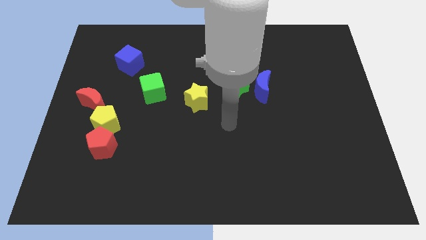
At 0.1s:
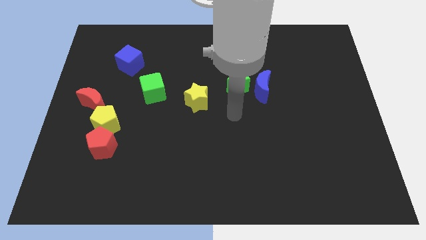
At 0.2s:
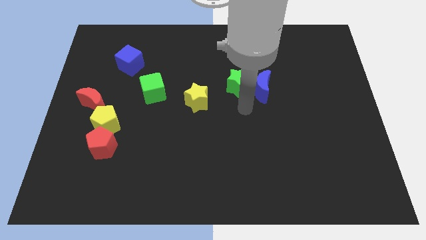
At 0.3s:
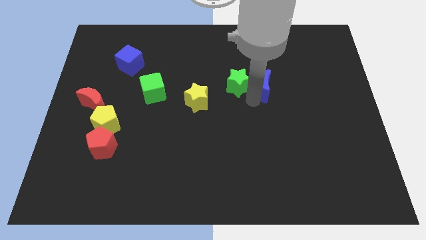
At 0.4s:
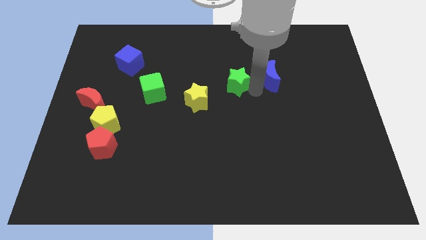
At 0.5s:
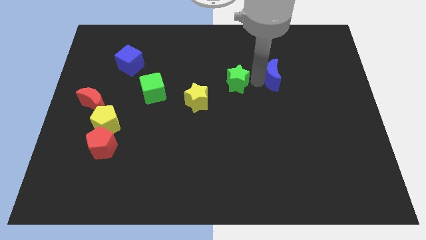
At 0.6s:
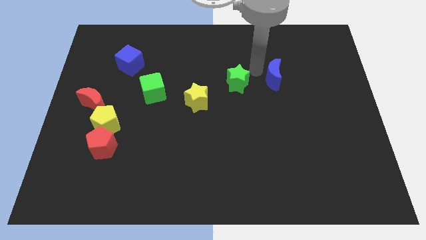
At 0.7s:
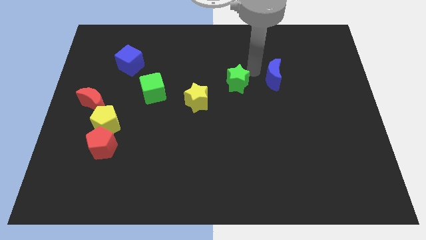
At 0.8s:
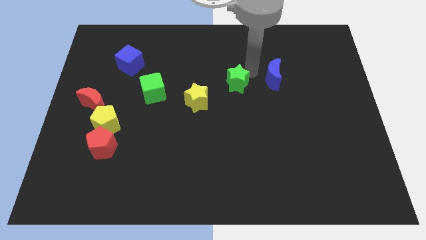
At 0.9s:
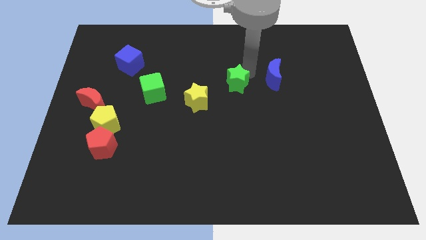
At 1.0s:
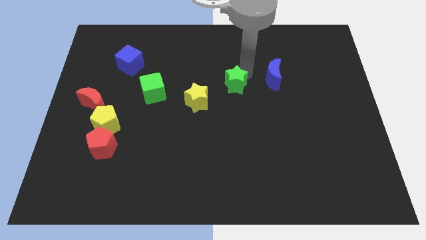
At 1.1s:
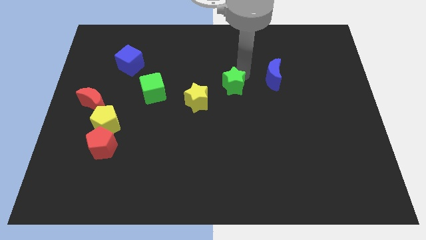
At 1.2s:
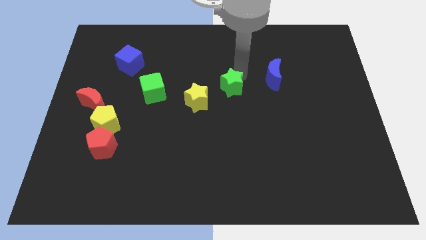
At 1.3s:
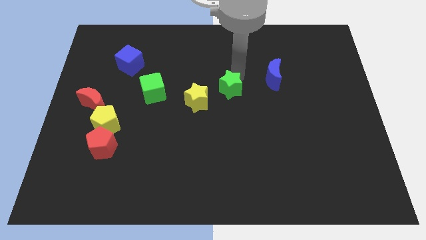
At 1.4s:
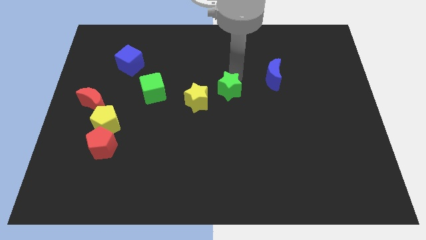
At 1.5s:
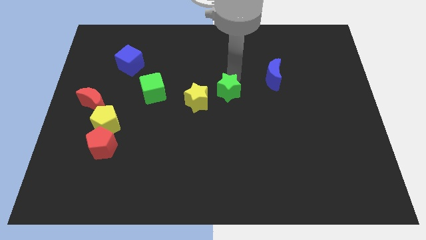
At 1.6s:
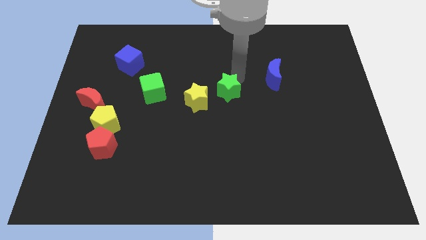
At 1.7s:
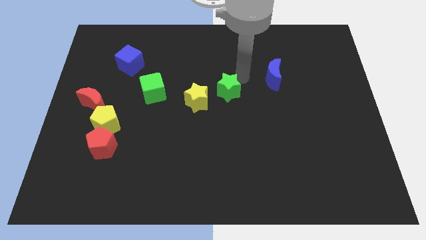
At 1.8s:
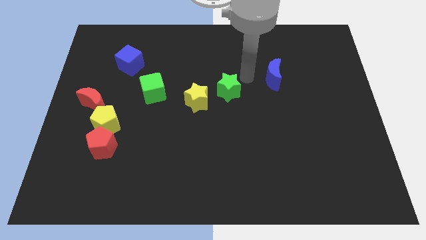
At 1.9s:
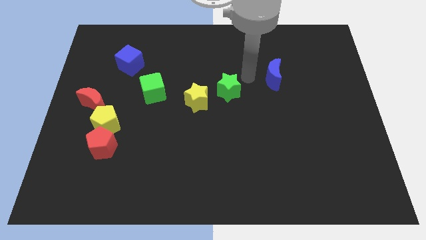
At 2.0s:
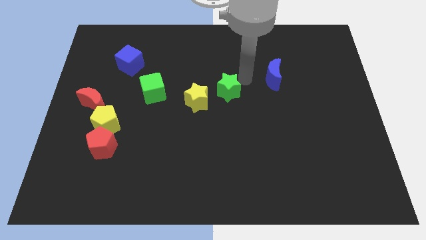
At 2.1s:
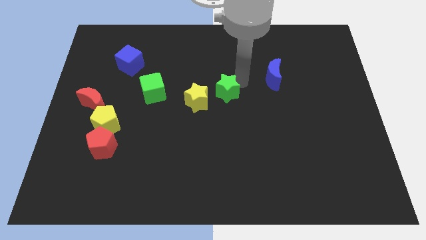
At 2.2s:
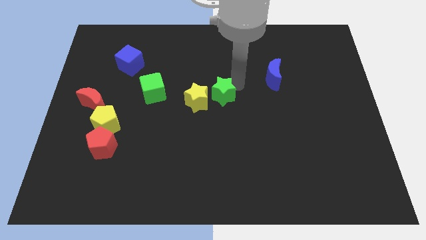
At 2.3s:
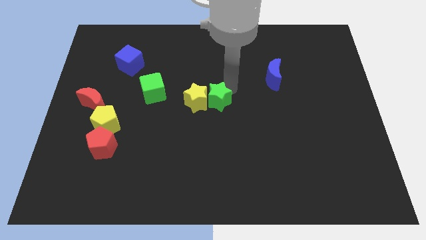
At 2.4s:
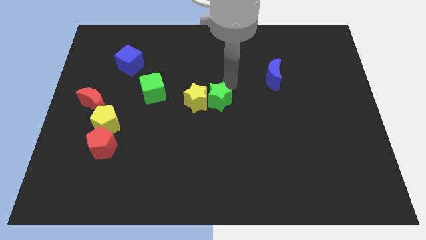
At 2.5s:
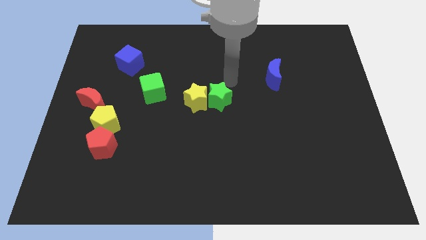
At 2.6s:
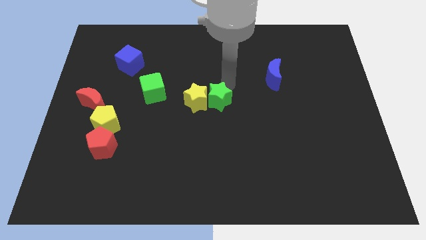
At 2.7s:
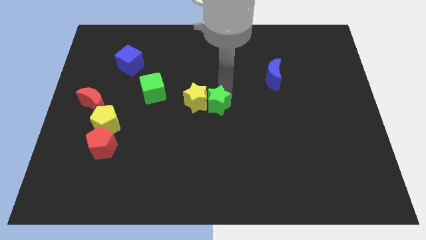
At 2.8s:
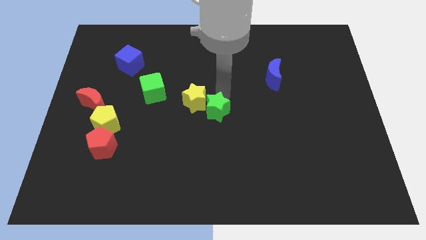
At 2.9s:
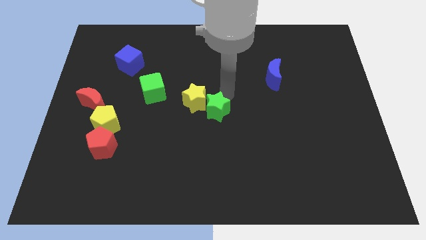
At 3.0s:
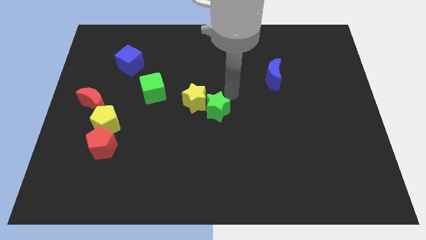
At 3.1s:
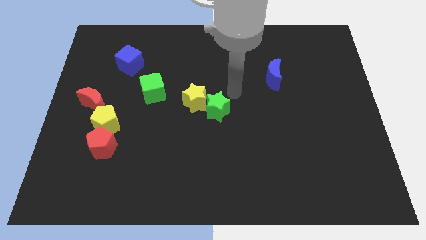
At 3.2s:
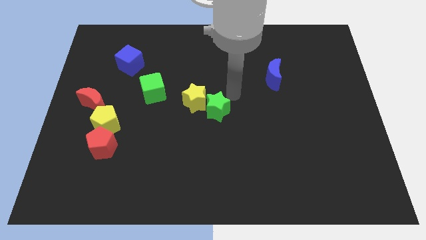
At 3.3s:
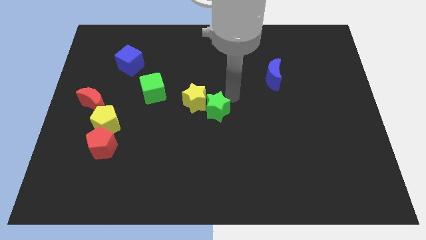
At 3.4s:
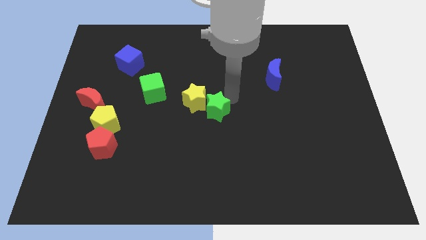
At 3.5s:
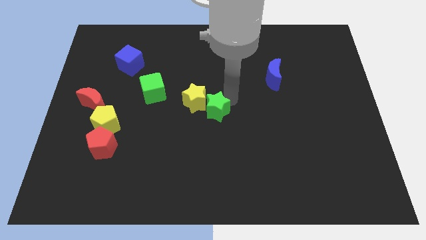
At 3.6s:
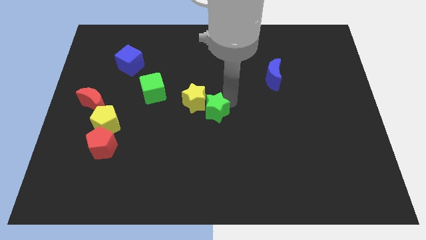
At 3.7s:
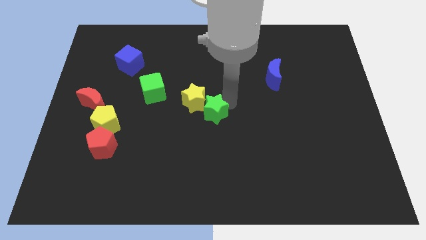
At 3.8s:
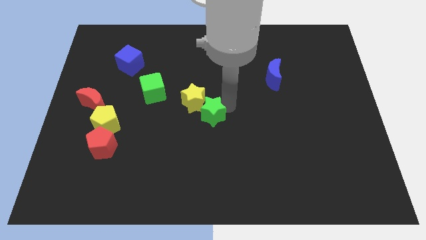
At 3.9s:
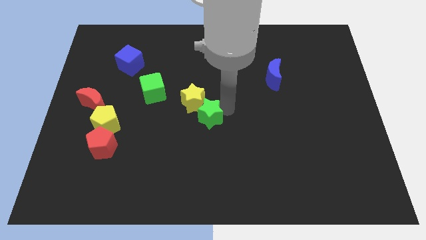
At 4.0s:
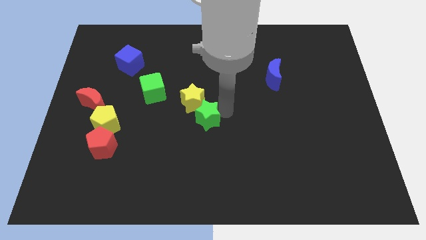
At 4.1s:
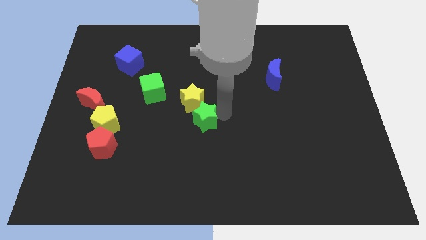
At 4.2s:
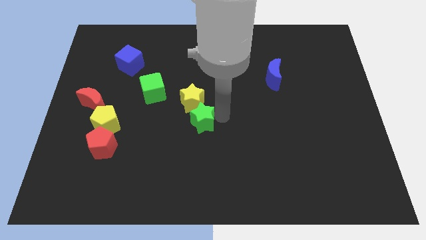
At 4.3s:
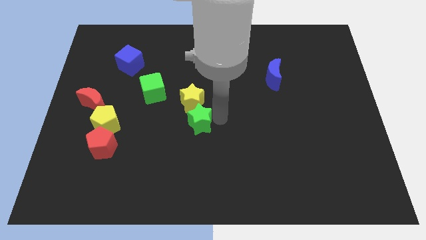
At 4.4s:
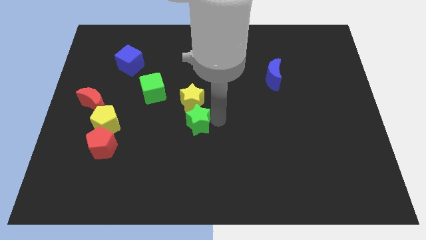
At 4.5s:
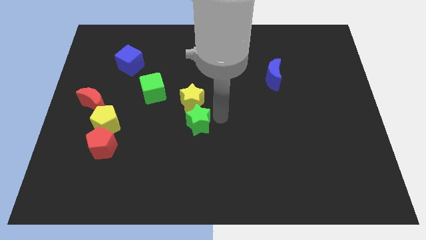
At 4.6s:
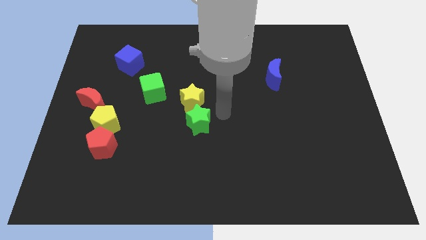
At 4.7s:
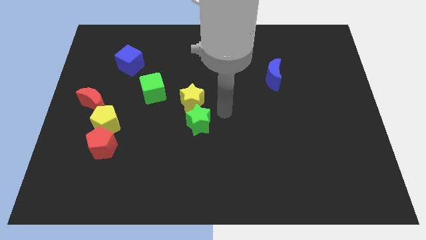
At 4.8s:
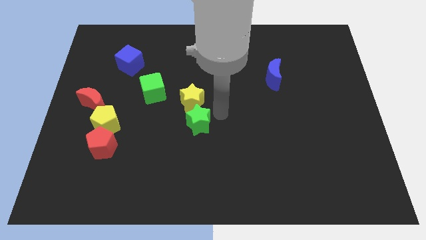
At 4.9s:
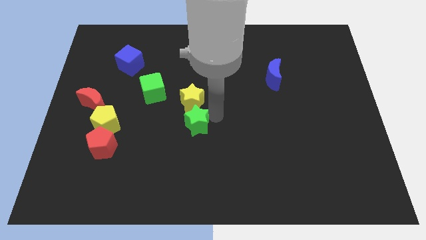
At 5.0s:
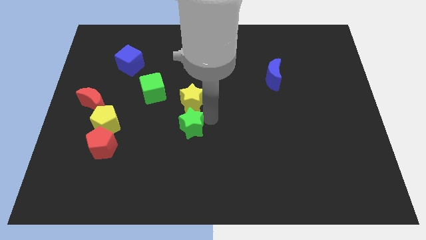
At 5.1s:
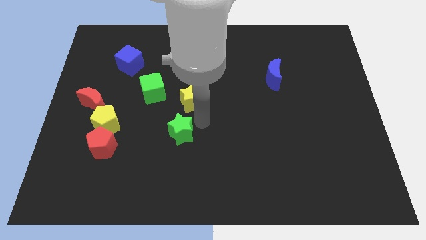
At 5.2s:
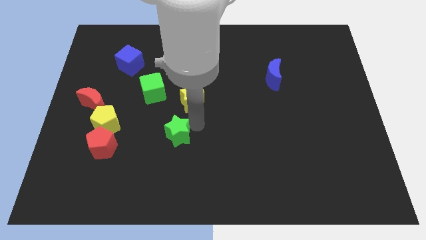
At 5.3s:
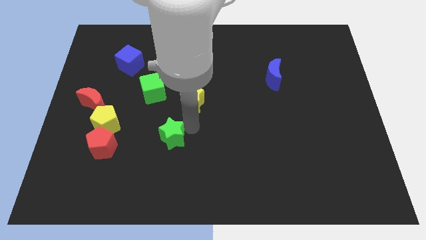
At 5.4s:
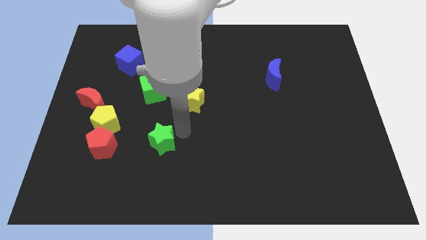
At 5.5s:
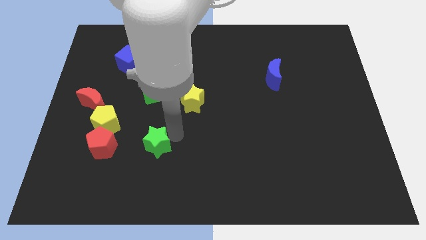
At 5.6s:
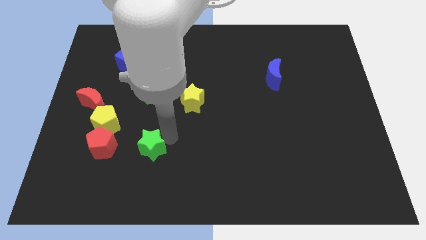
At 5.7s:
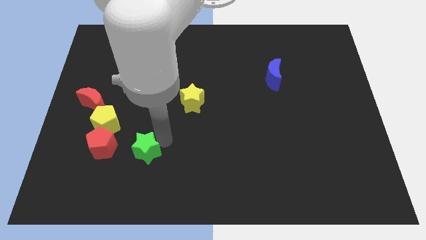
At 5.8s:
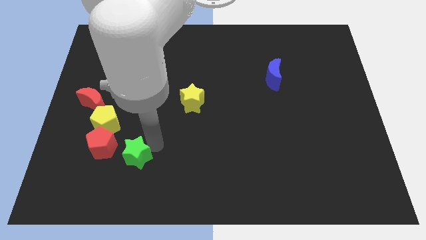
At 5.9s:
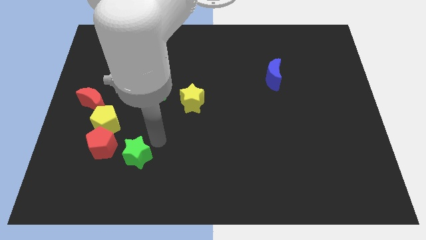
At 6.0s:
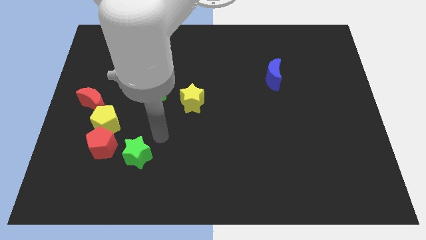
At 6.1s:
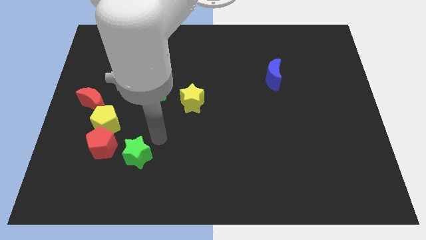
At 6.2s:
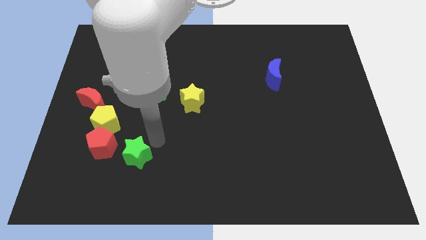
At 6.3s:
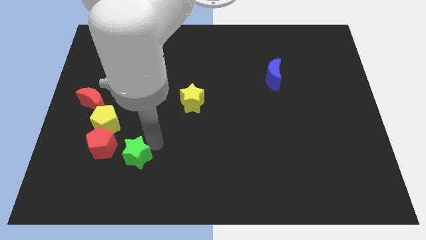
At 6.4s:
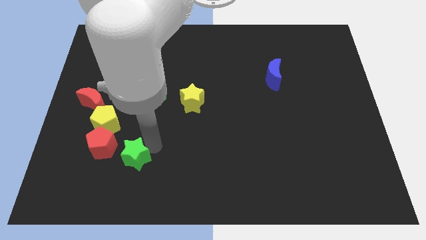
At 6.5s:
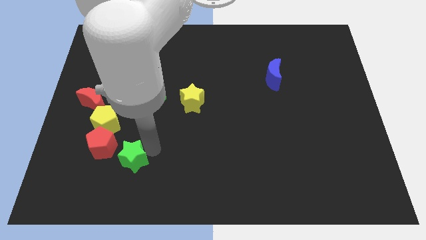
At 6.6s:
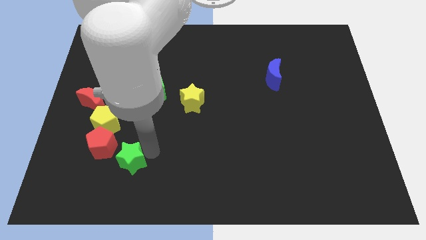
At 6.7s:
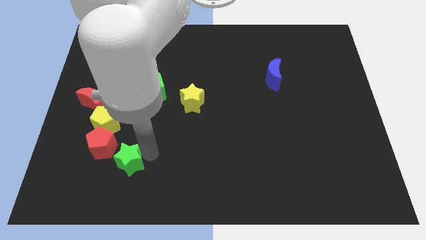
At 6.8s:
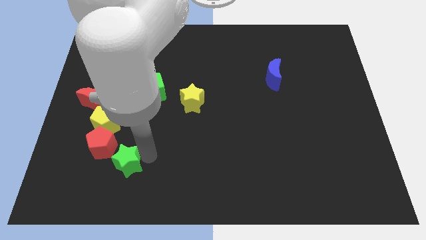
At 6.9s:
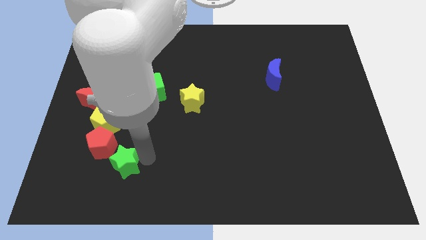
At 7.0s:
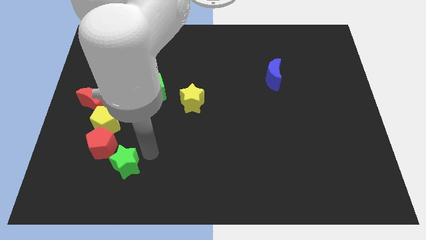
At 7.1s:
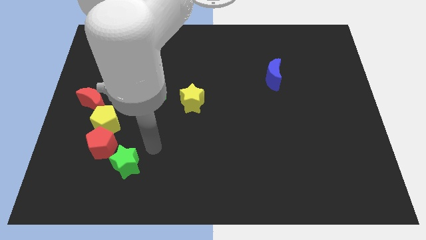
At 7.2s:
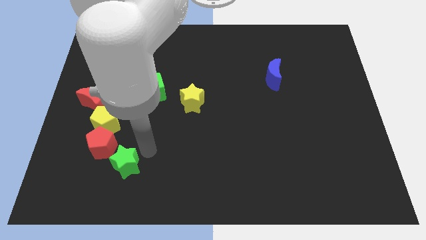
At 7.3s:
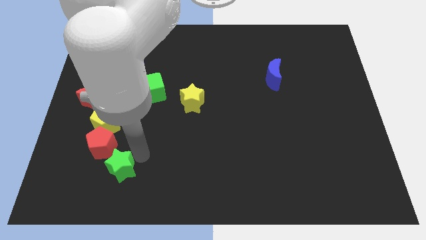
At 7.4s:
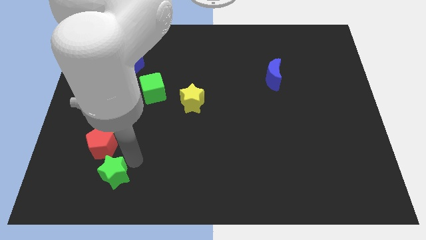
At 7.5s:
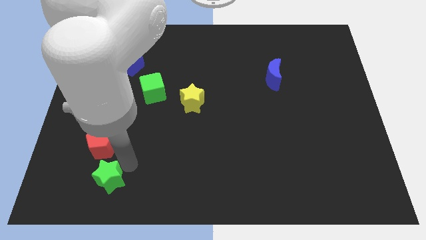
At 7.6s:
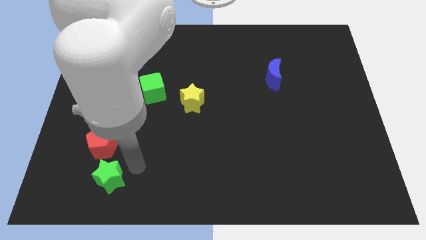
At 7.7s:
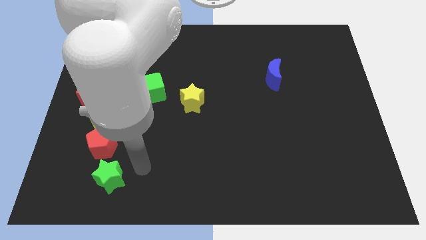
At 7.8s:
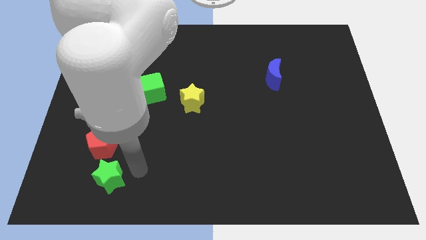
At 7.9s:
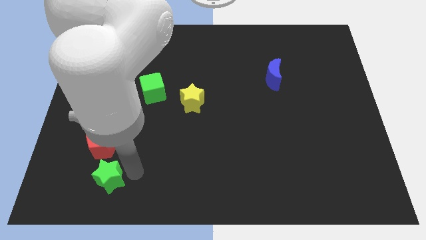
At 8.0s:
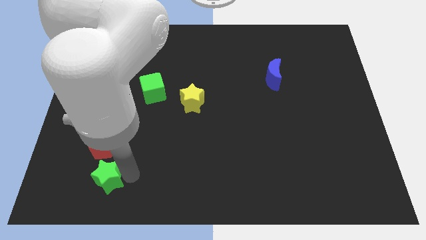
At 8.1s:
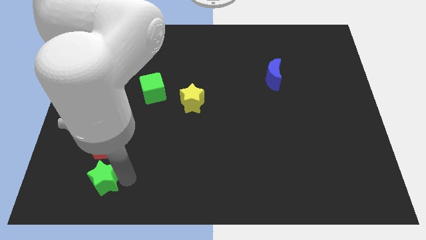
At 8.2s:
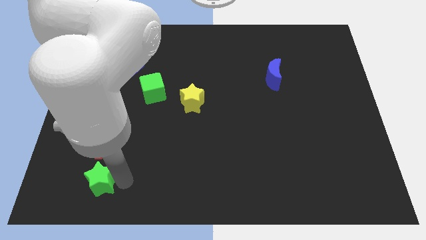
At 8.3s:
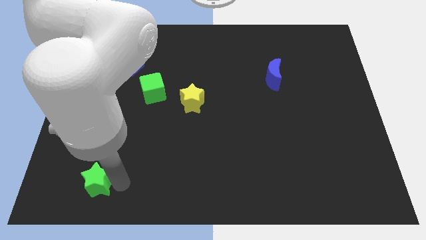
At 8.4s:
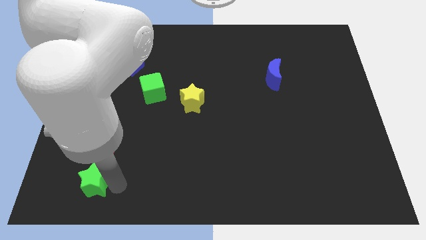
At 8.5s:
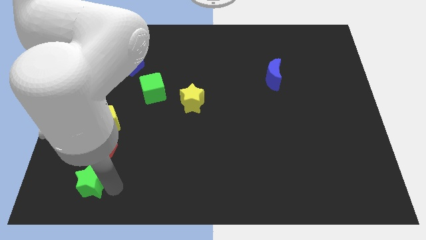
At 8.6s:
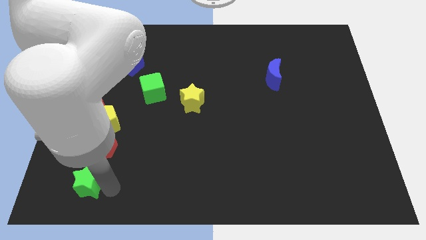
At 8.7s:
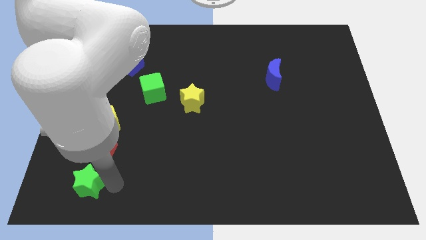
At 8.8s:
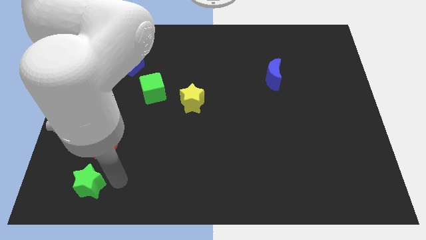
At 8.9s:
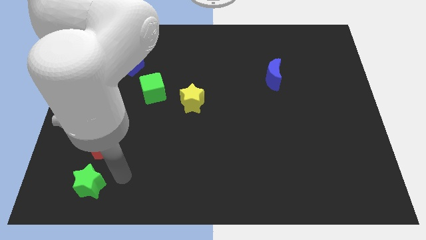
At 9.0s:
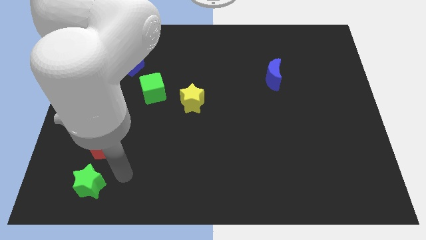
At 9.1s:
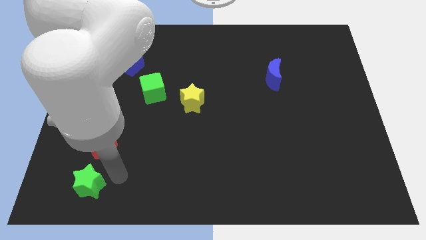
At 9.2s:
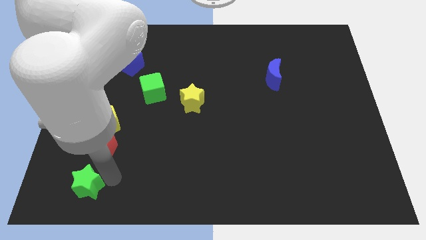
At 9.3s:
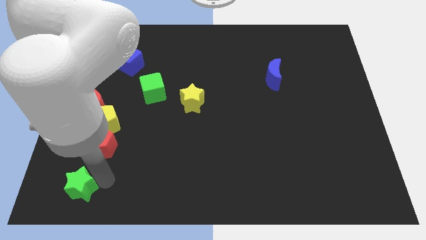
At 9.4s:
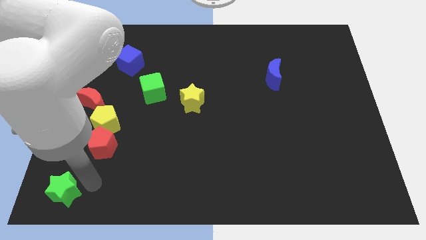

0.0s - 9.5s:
slide the green star to the lower left corner
